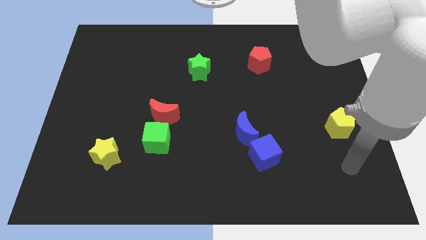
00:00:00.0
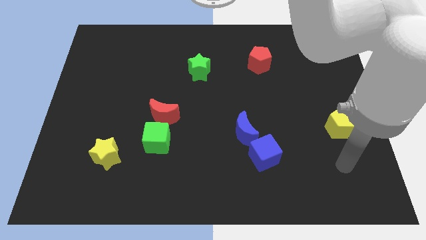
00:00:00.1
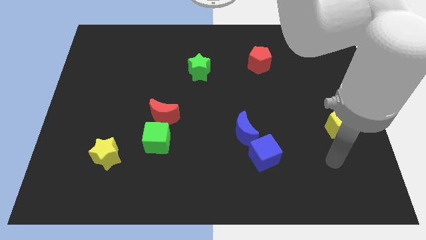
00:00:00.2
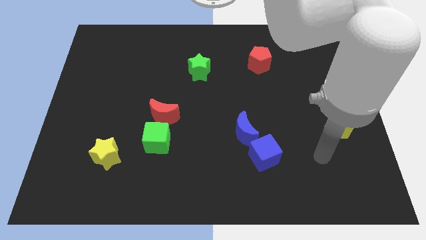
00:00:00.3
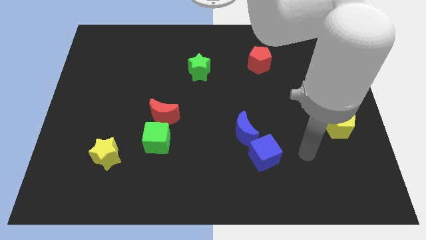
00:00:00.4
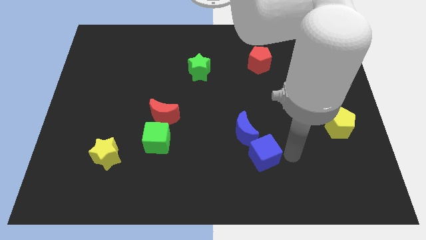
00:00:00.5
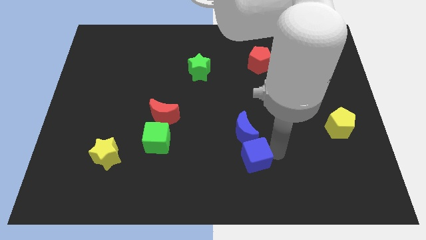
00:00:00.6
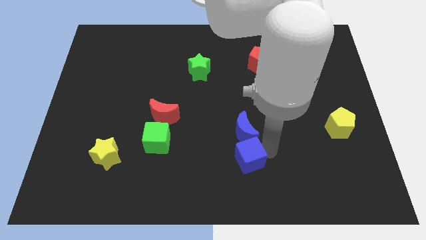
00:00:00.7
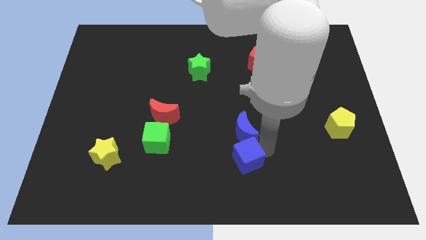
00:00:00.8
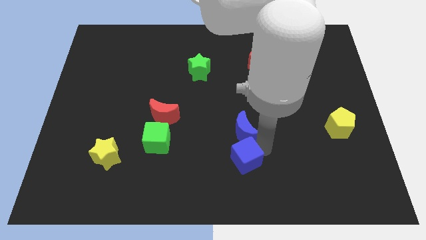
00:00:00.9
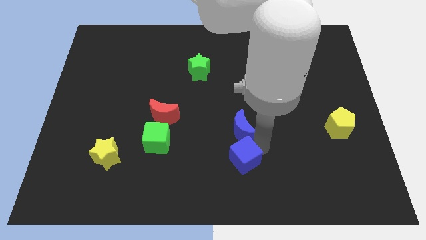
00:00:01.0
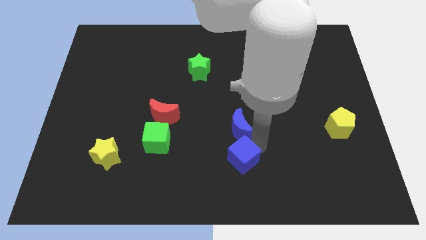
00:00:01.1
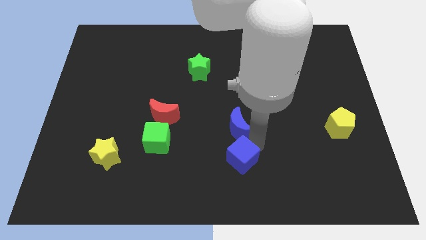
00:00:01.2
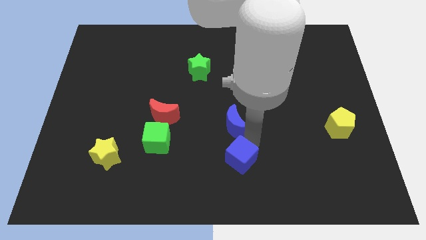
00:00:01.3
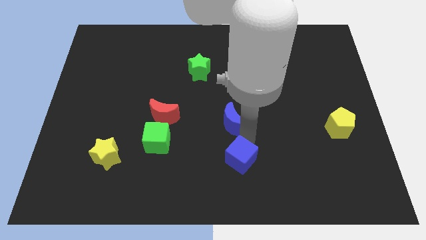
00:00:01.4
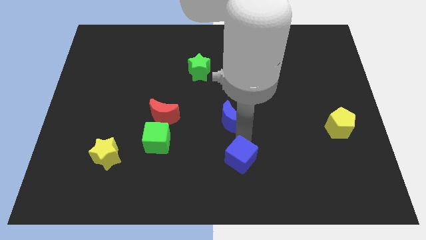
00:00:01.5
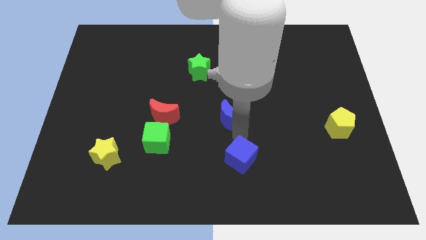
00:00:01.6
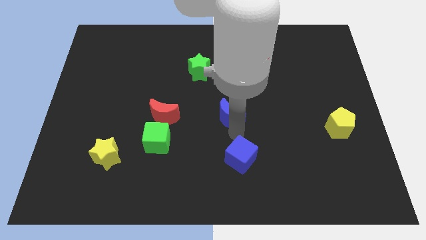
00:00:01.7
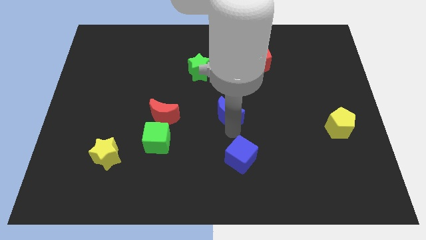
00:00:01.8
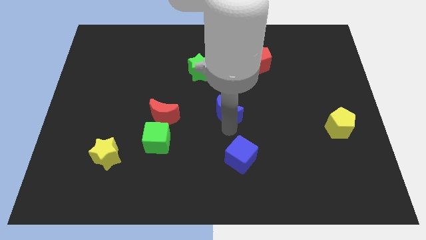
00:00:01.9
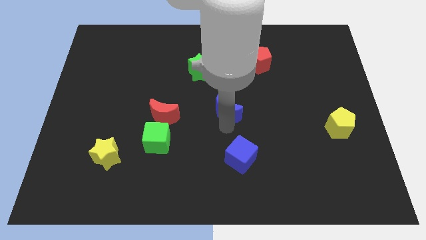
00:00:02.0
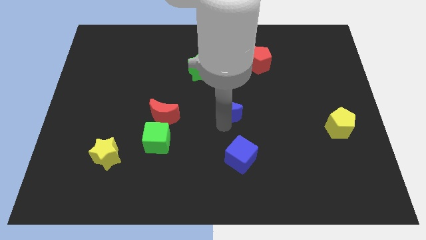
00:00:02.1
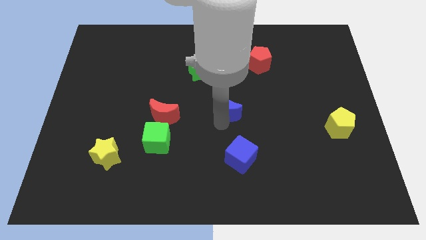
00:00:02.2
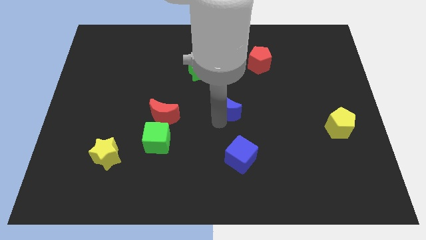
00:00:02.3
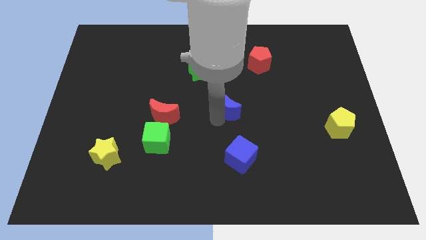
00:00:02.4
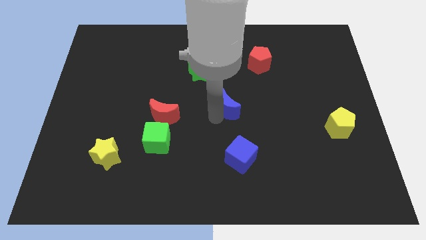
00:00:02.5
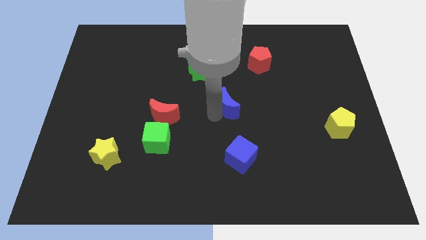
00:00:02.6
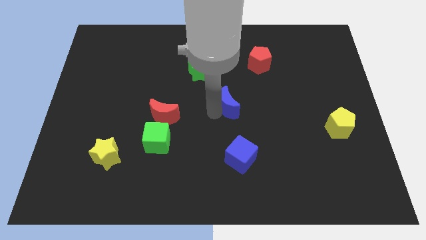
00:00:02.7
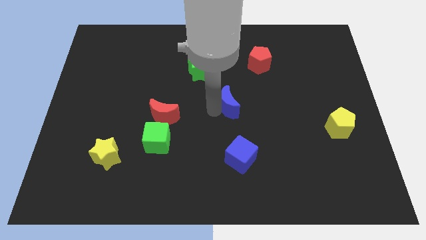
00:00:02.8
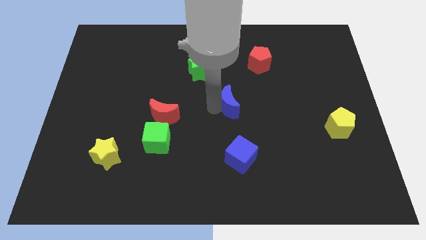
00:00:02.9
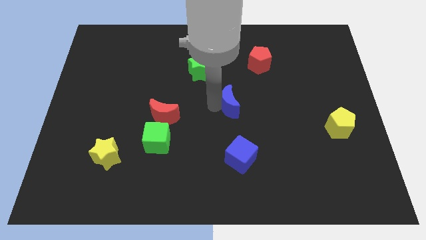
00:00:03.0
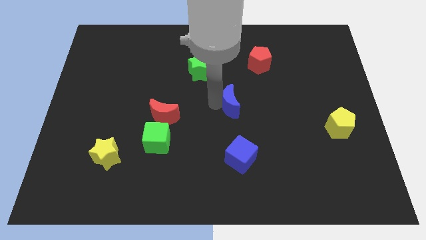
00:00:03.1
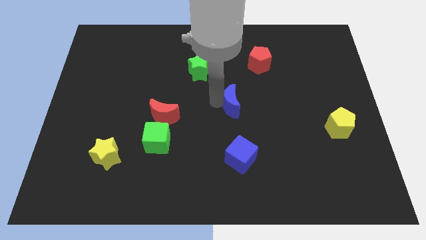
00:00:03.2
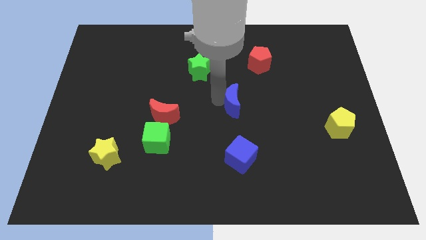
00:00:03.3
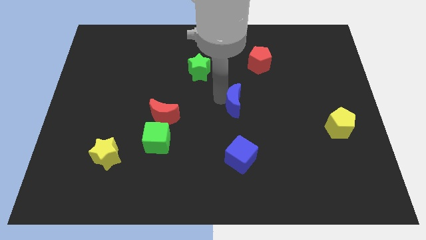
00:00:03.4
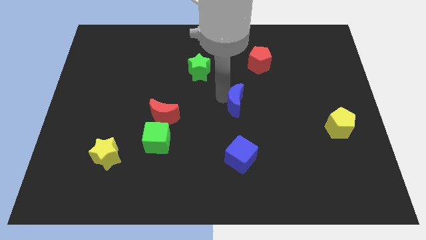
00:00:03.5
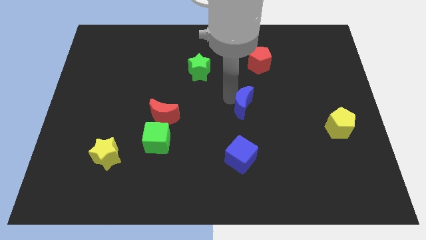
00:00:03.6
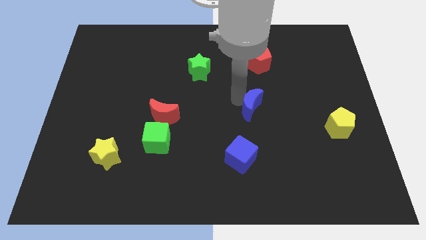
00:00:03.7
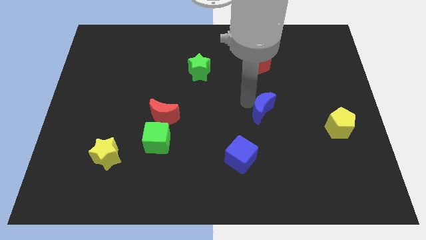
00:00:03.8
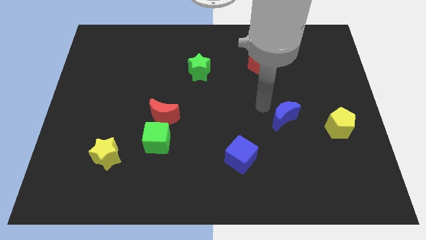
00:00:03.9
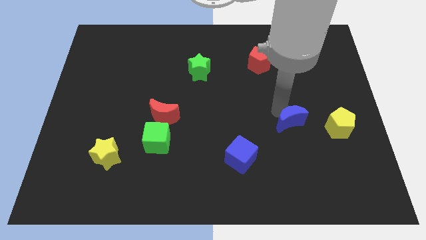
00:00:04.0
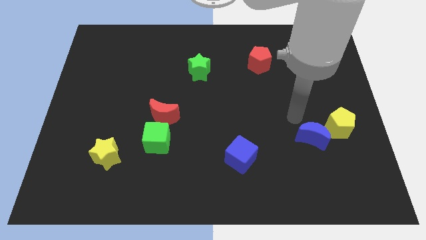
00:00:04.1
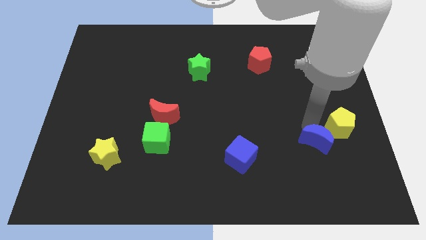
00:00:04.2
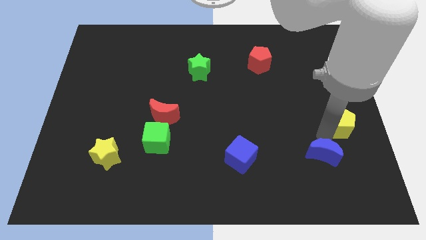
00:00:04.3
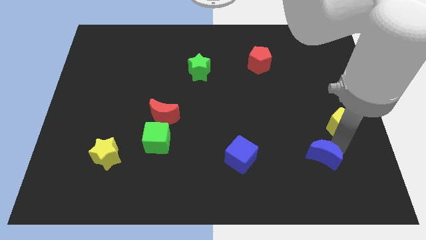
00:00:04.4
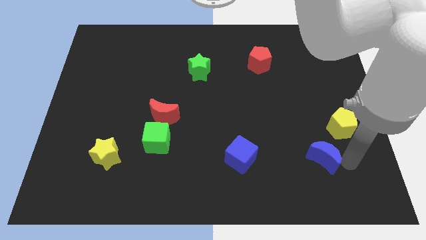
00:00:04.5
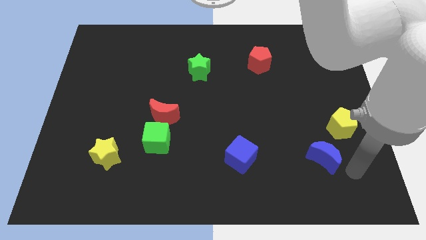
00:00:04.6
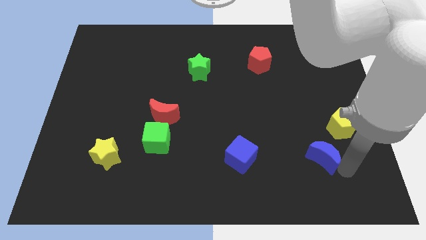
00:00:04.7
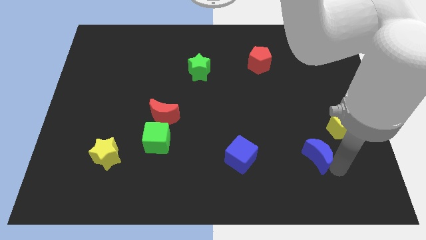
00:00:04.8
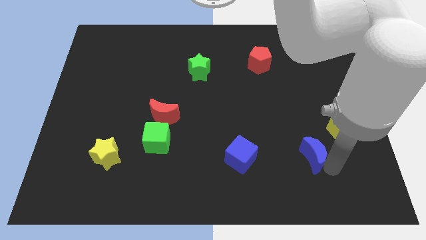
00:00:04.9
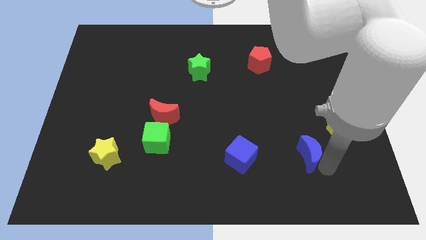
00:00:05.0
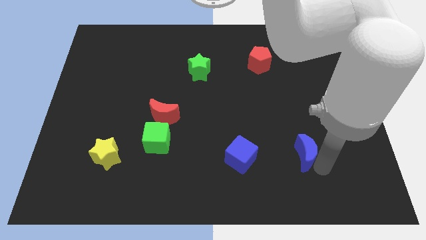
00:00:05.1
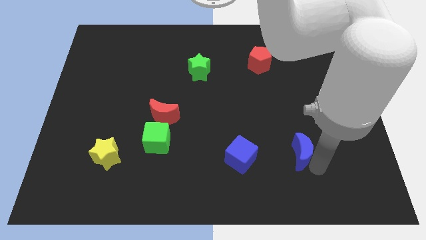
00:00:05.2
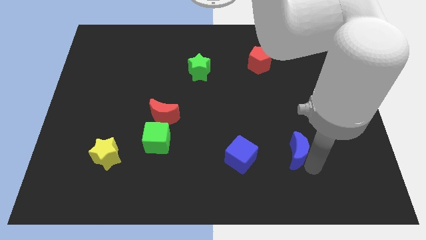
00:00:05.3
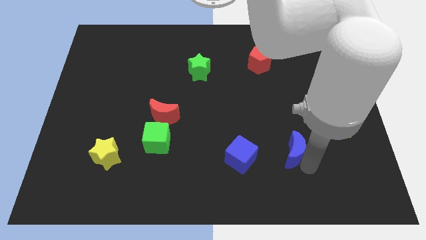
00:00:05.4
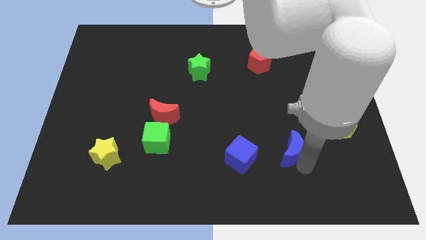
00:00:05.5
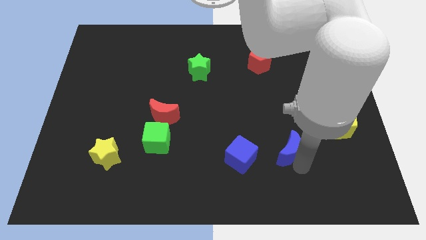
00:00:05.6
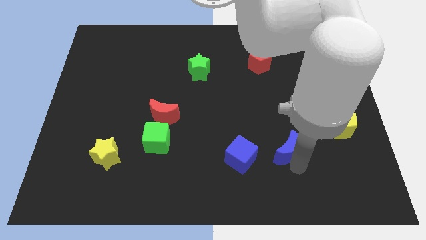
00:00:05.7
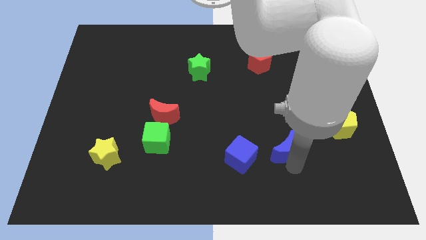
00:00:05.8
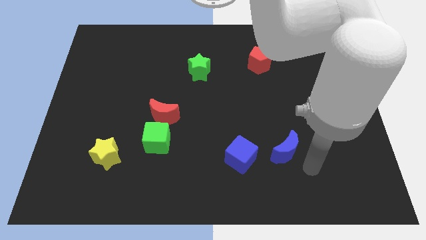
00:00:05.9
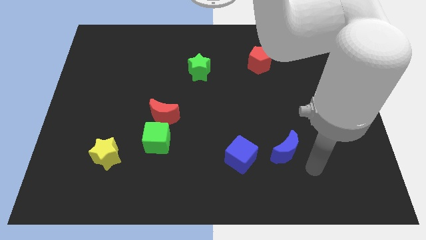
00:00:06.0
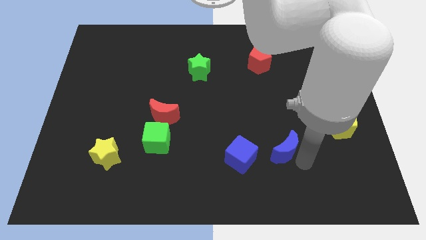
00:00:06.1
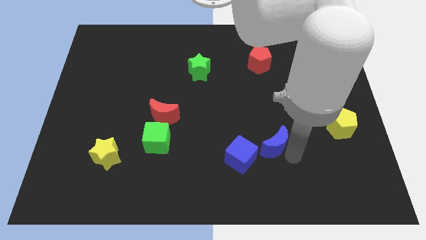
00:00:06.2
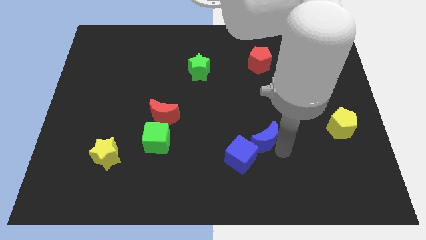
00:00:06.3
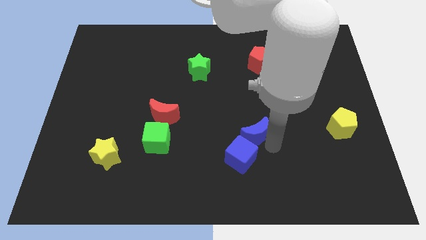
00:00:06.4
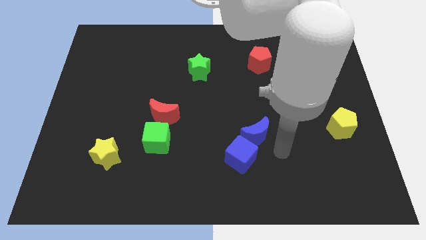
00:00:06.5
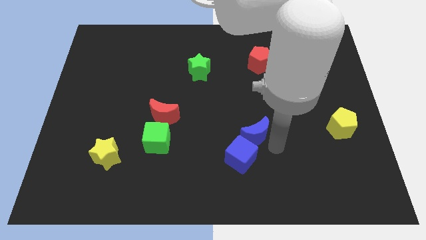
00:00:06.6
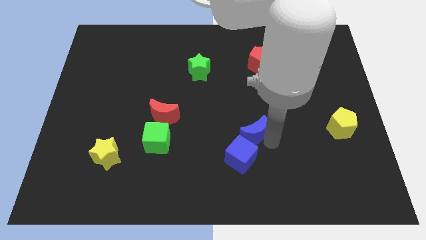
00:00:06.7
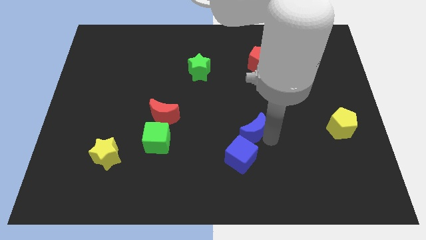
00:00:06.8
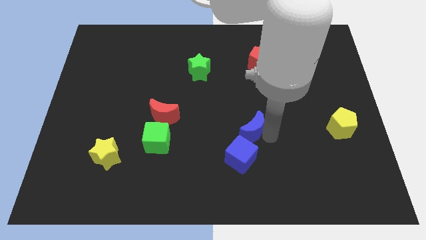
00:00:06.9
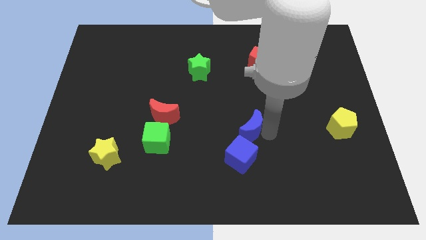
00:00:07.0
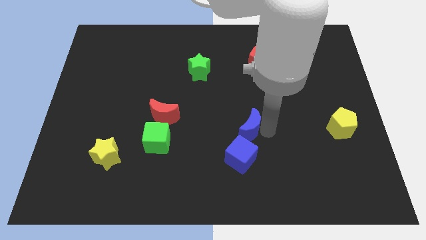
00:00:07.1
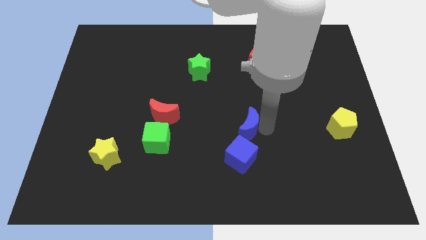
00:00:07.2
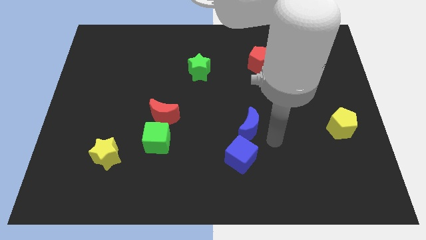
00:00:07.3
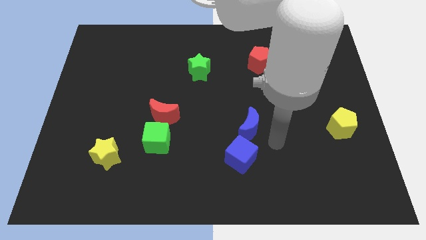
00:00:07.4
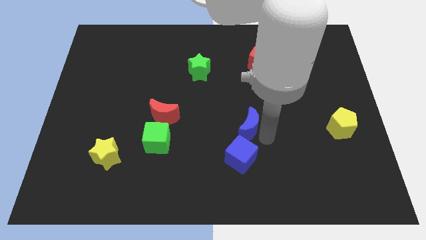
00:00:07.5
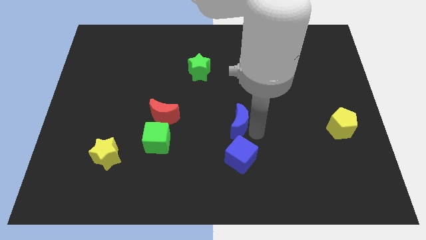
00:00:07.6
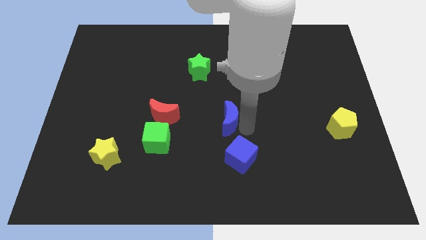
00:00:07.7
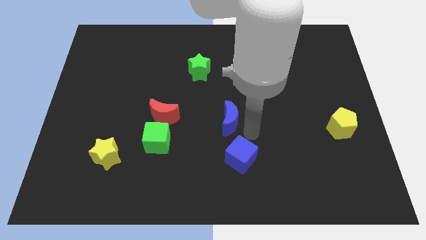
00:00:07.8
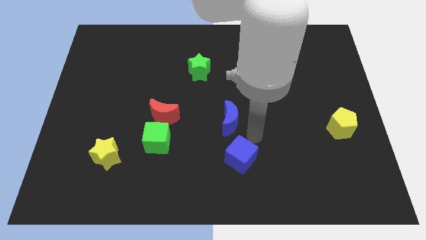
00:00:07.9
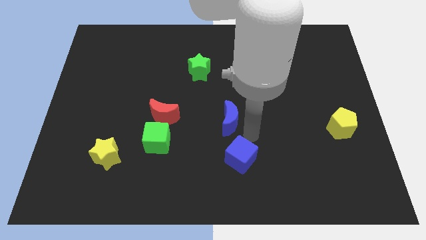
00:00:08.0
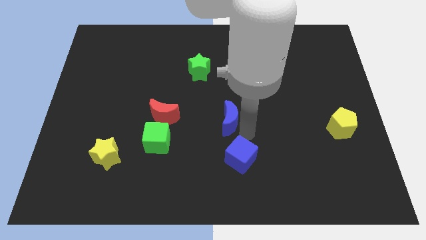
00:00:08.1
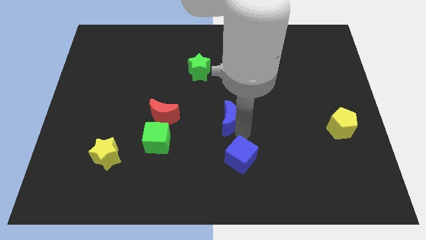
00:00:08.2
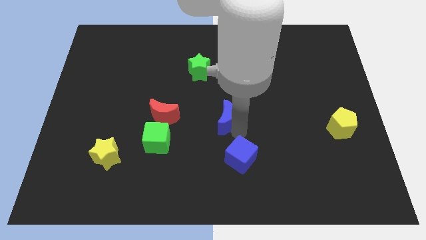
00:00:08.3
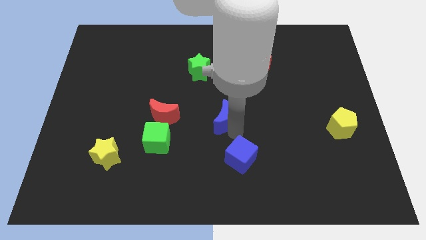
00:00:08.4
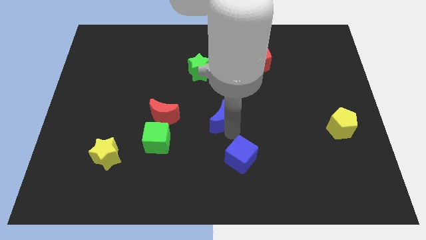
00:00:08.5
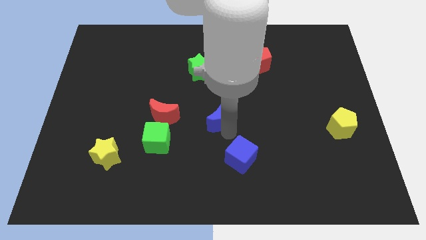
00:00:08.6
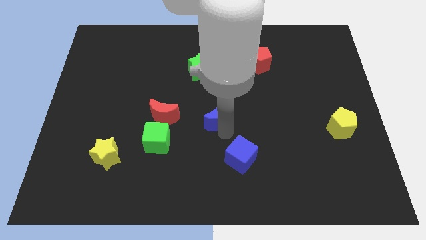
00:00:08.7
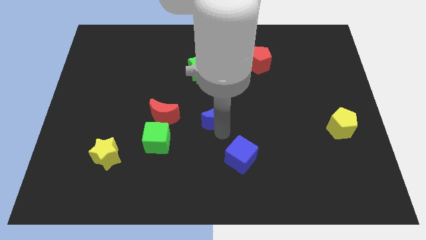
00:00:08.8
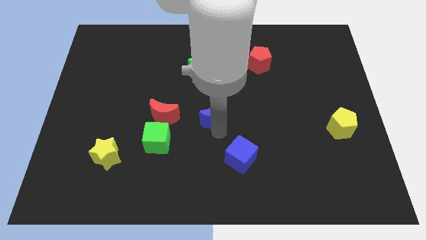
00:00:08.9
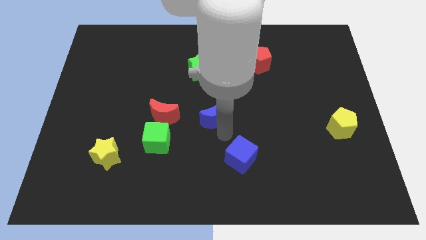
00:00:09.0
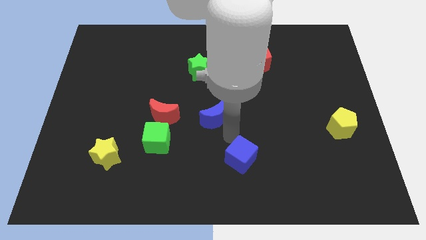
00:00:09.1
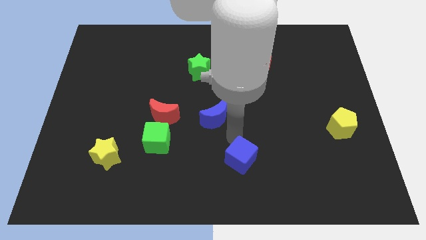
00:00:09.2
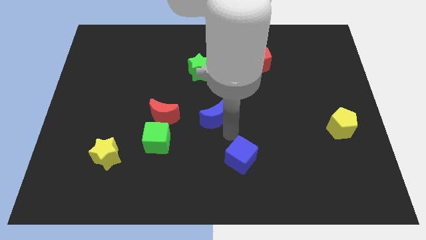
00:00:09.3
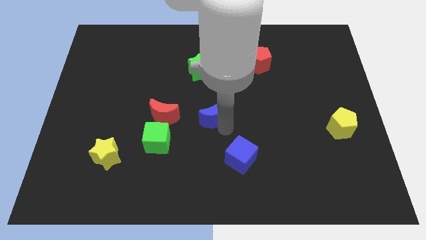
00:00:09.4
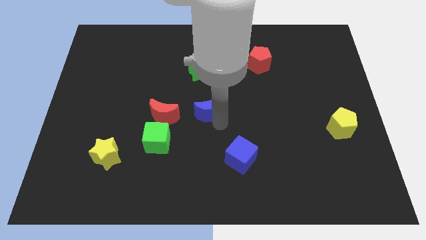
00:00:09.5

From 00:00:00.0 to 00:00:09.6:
push the blue moon to the bottom of the green star
